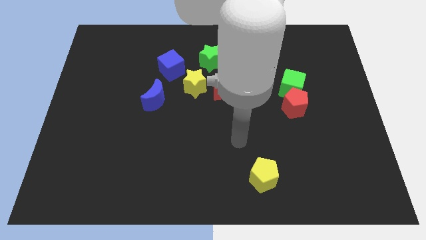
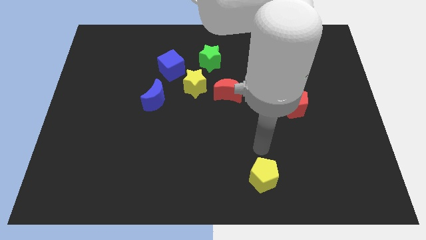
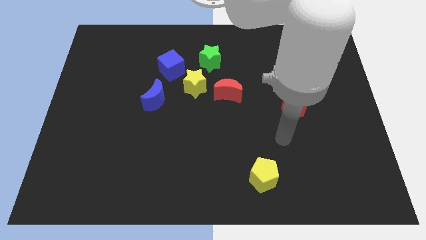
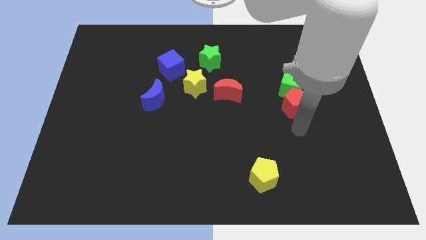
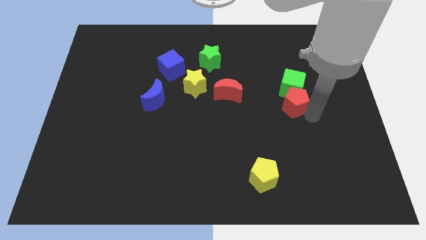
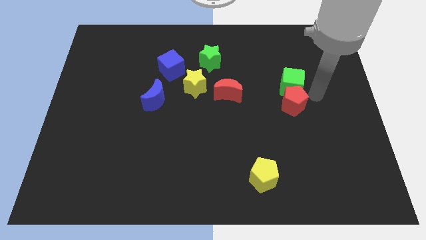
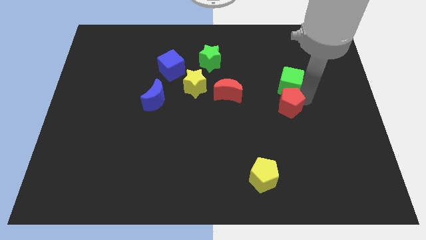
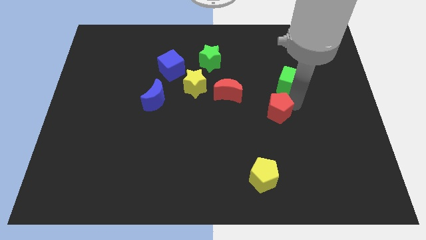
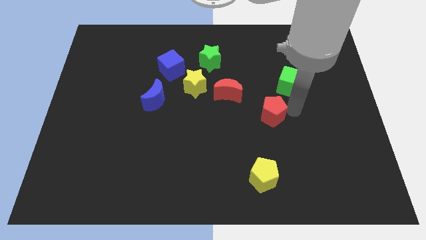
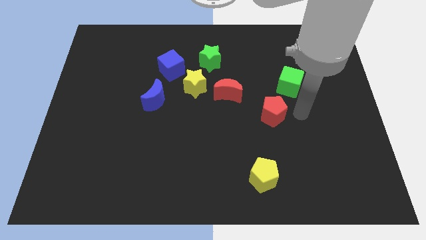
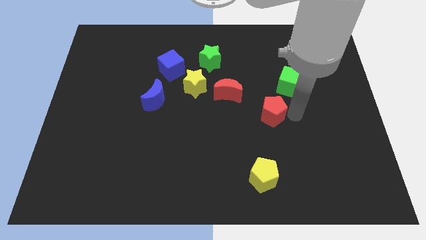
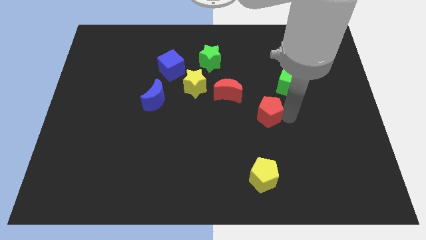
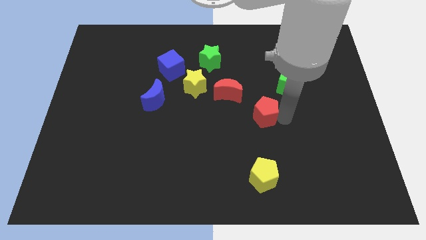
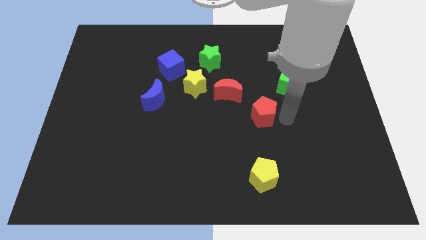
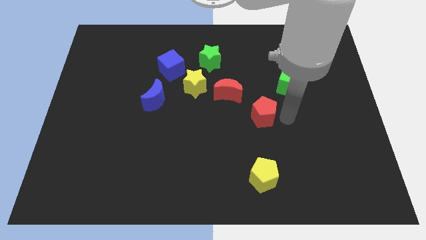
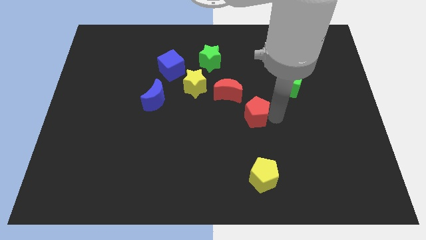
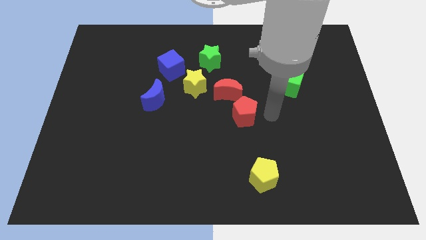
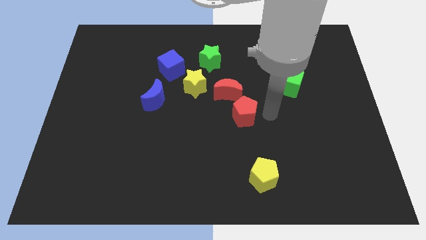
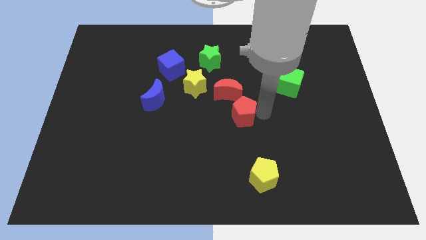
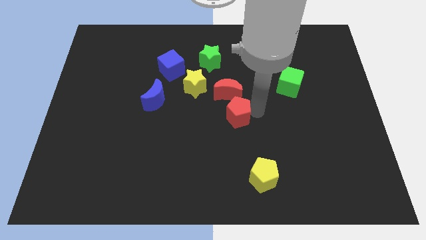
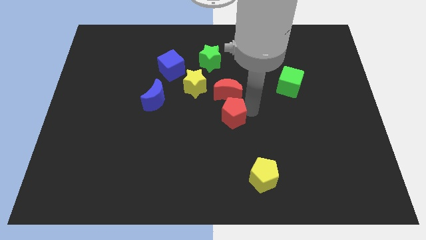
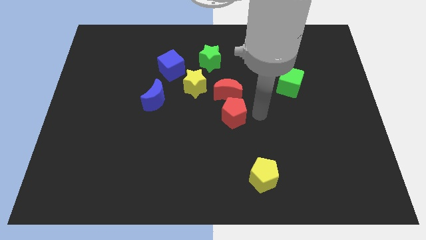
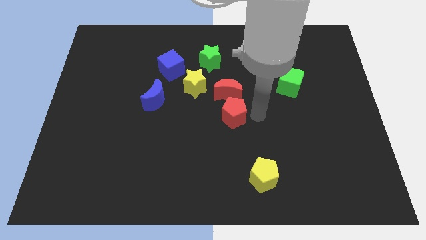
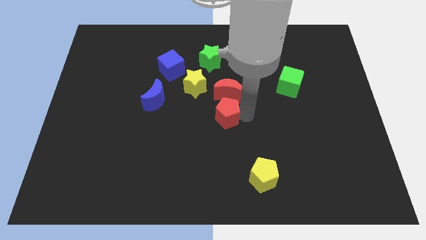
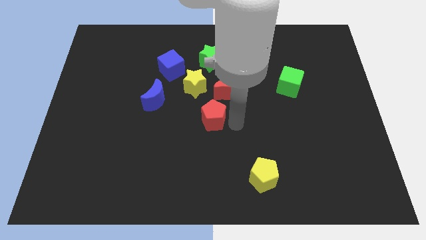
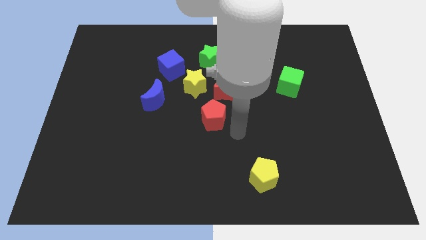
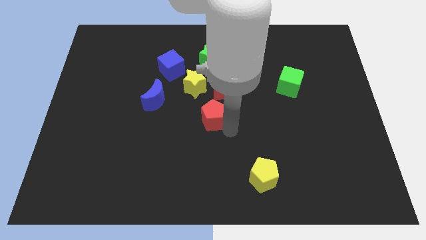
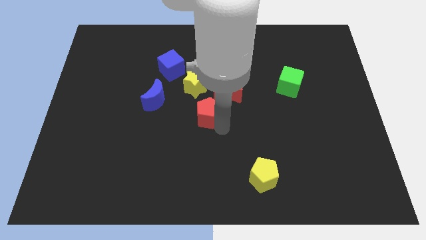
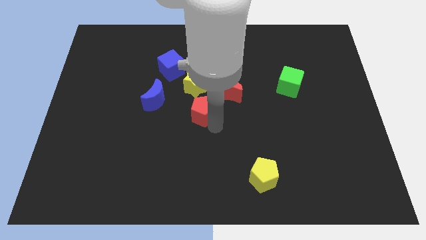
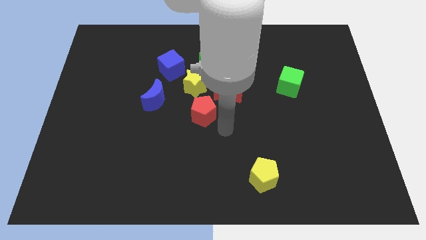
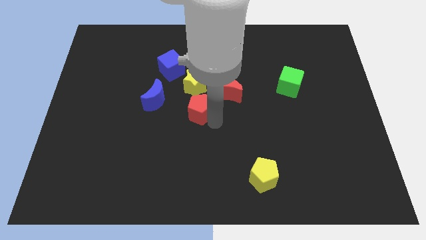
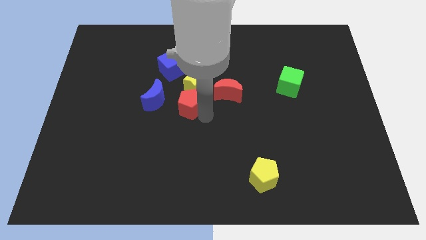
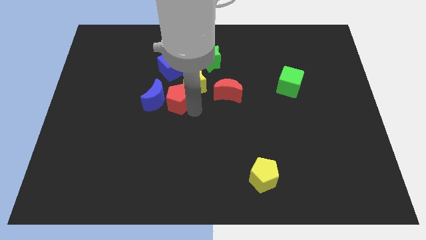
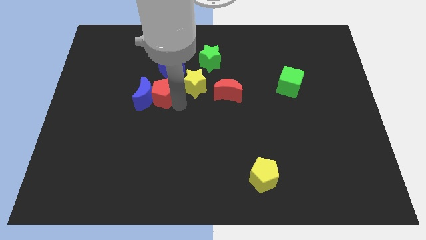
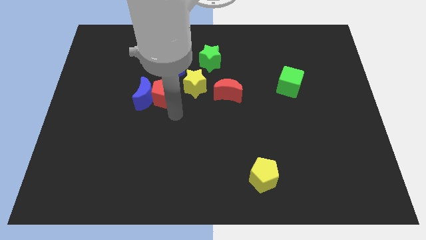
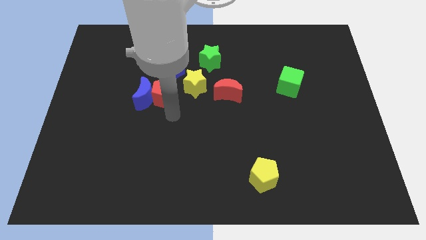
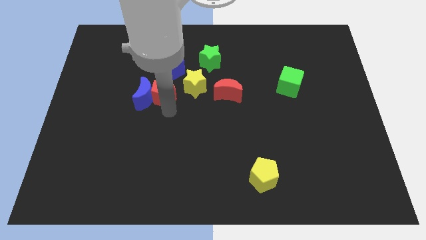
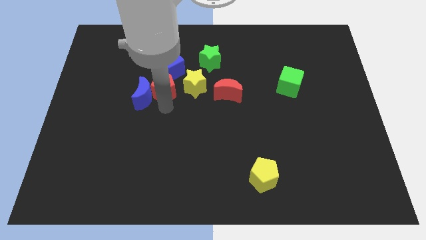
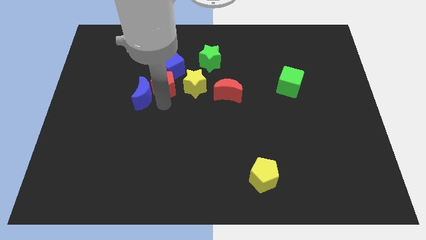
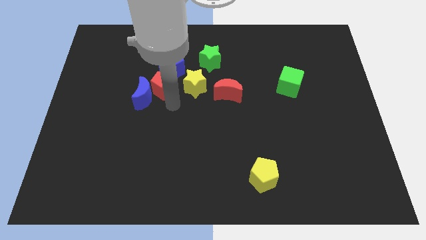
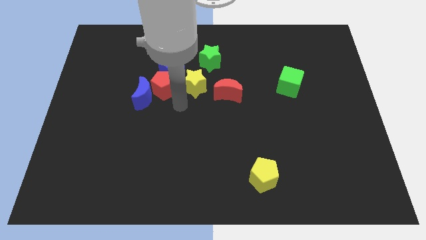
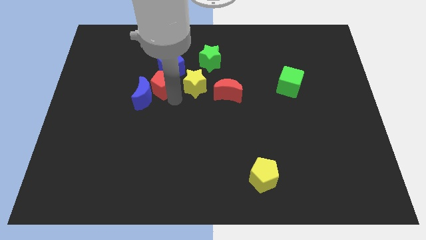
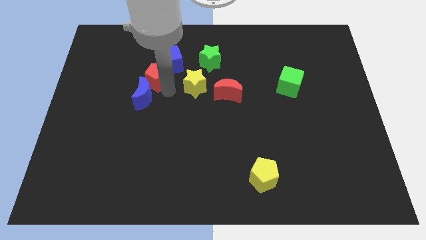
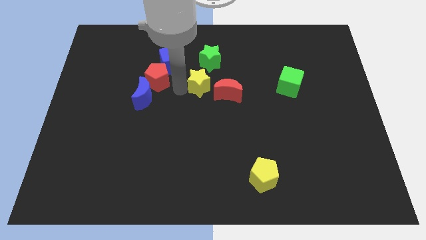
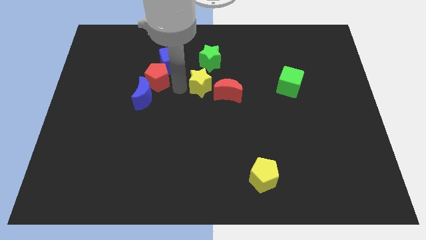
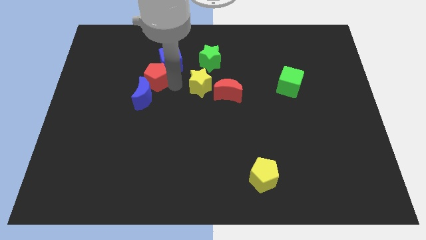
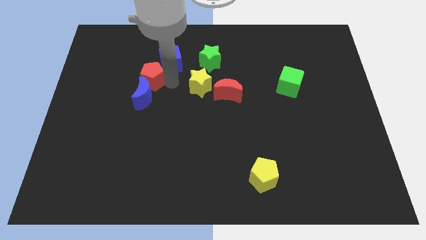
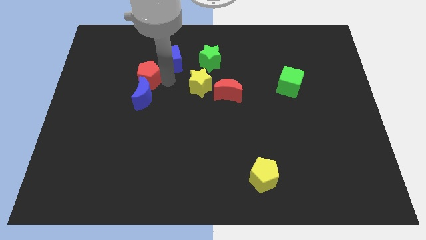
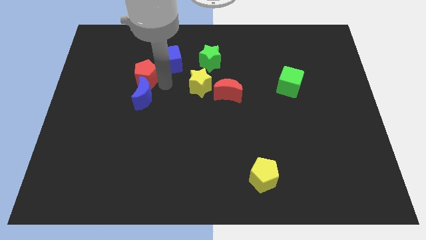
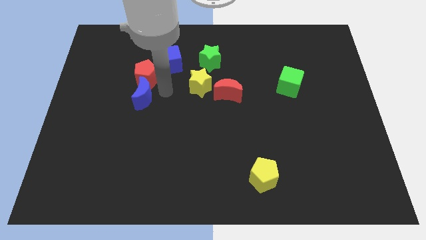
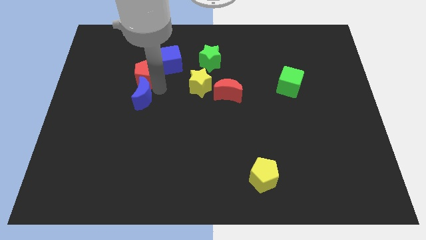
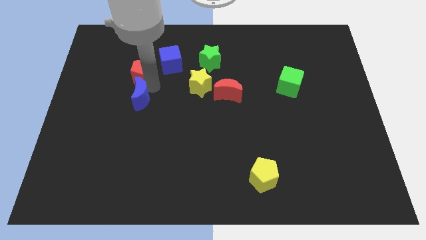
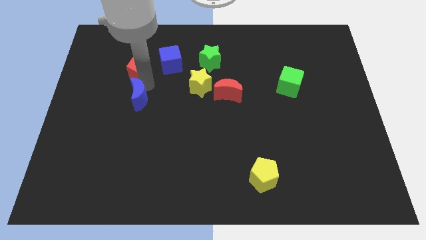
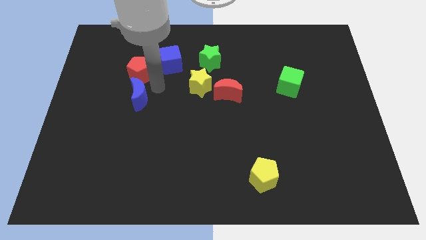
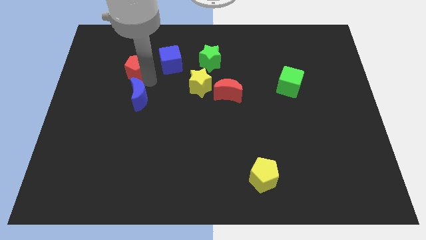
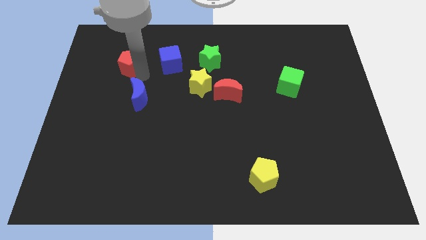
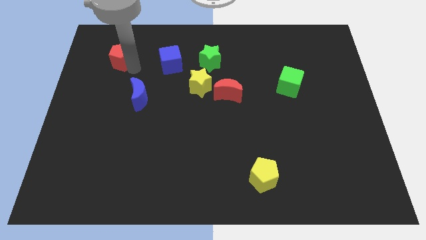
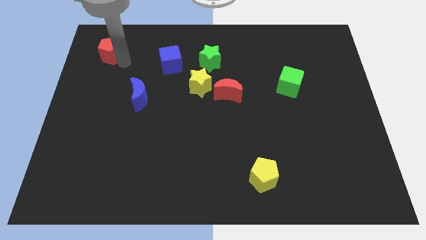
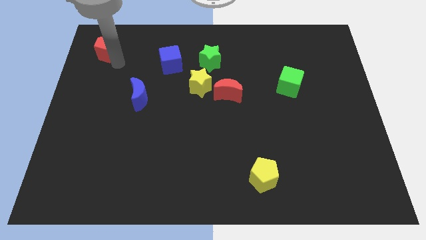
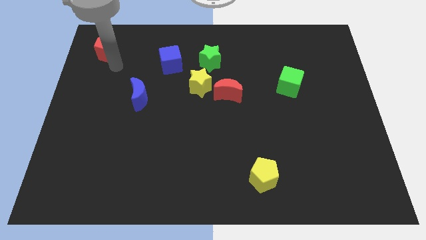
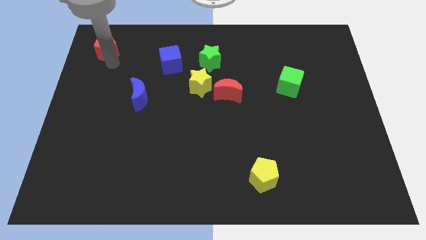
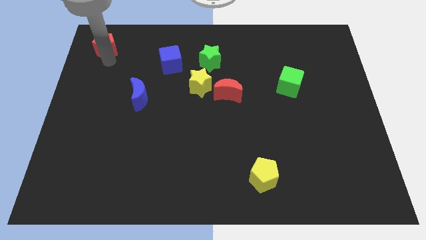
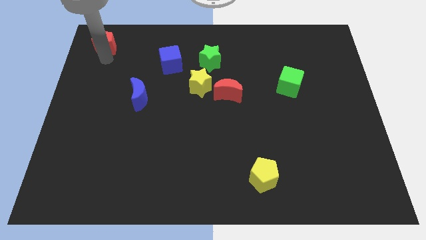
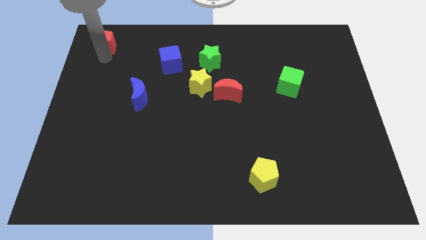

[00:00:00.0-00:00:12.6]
push the red pentagon to the top left of the board
